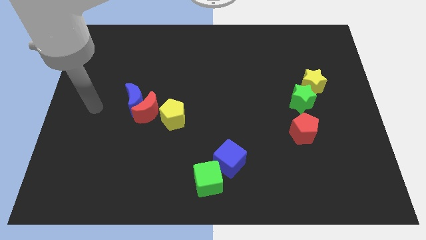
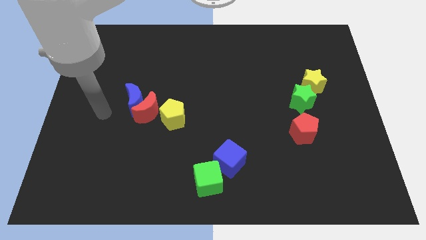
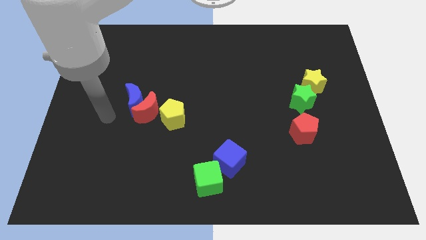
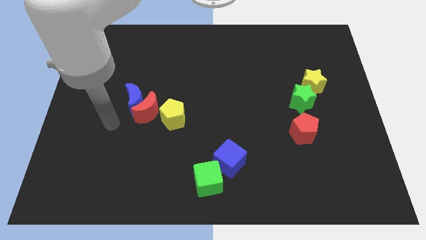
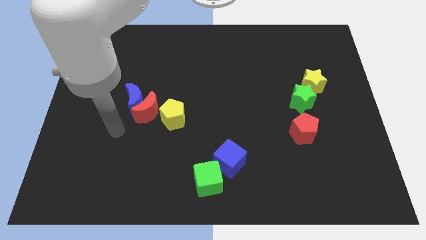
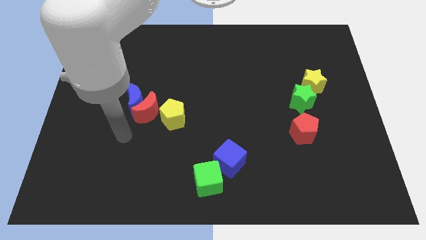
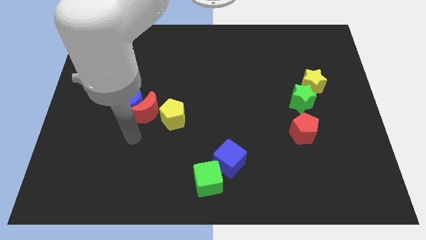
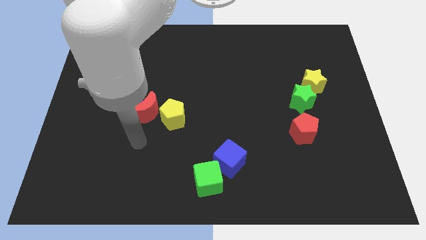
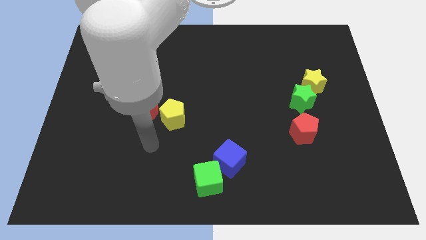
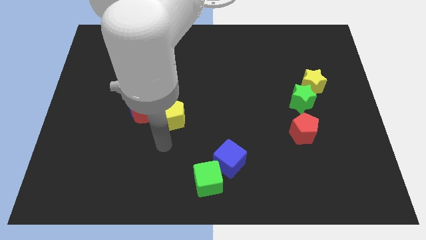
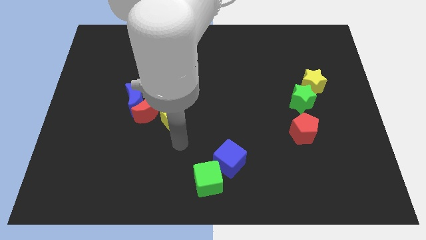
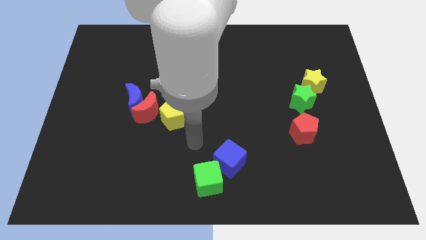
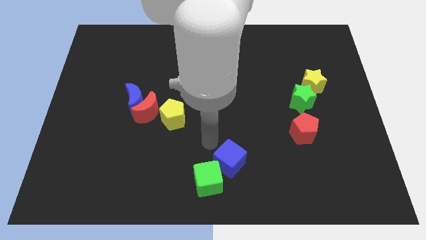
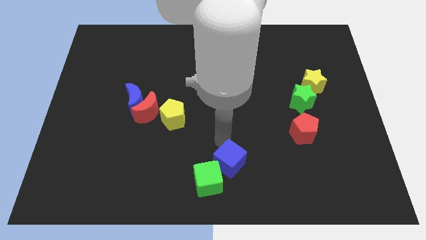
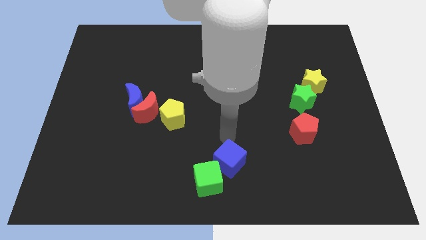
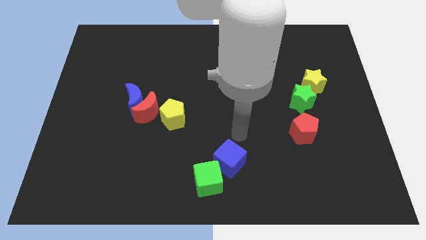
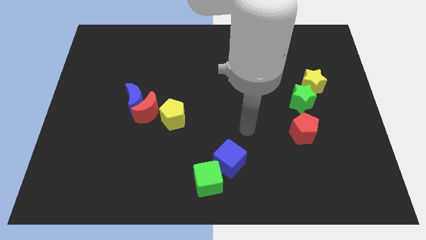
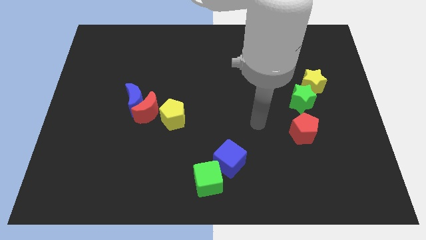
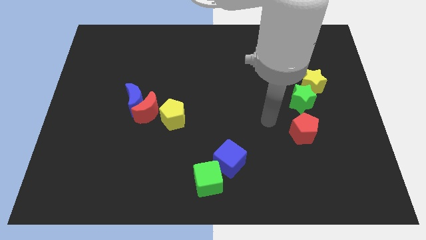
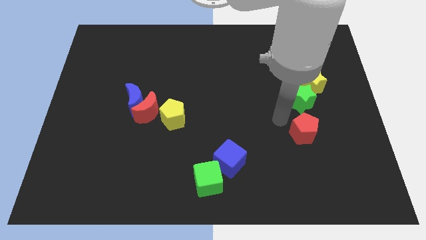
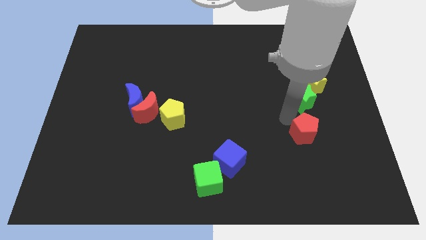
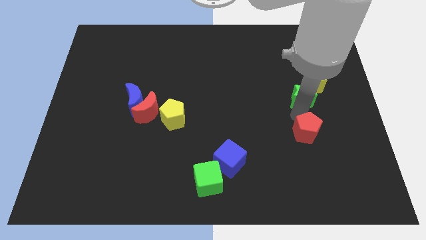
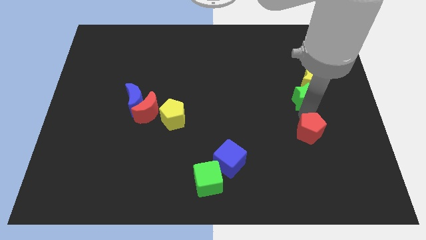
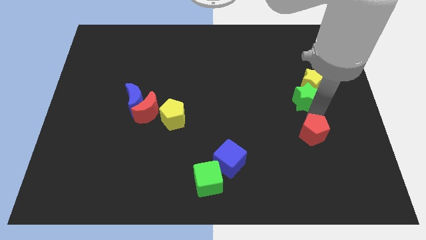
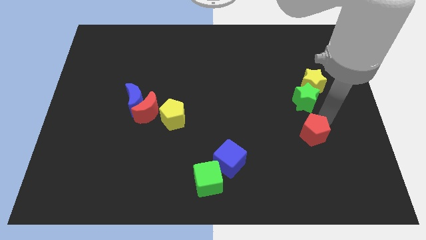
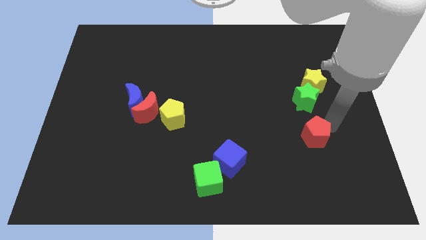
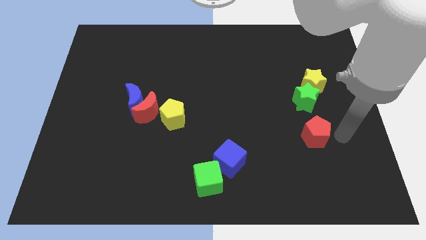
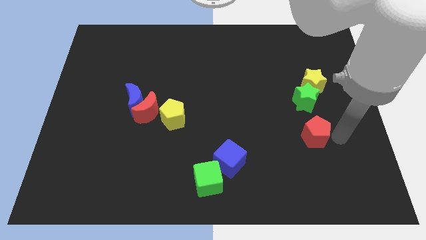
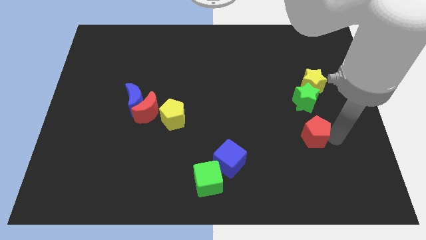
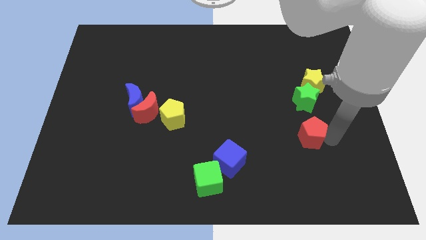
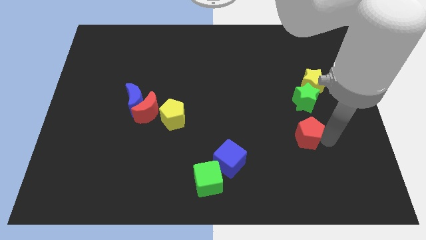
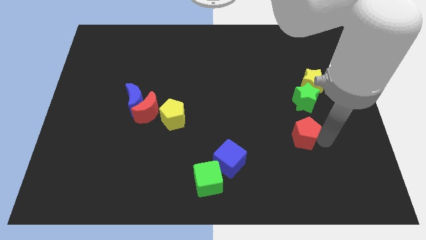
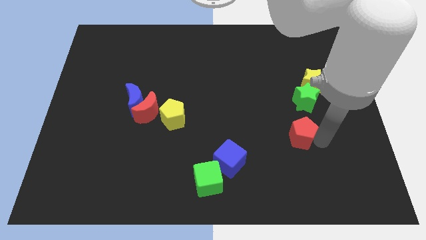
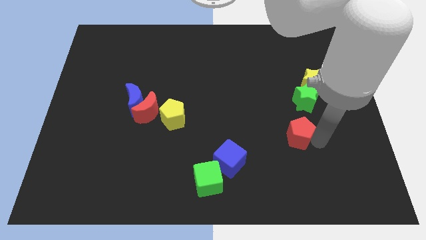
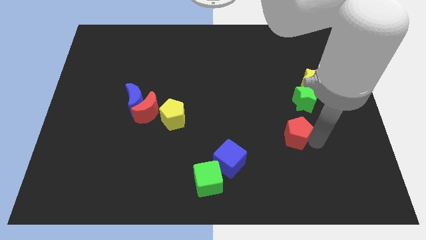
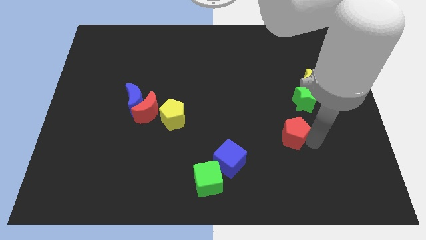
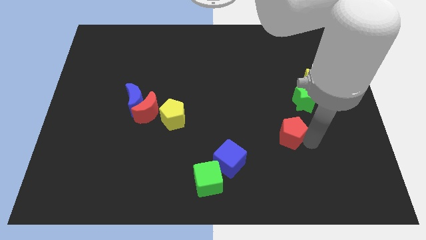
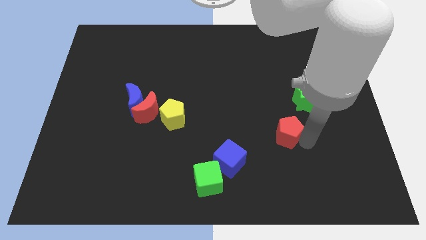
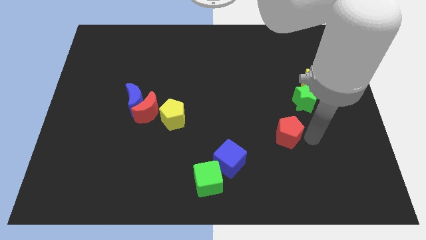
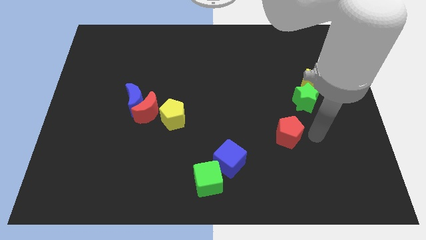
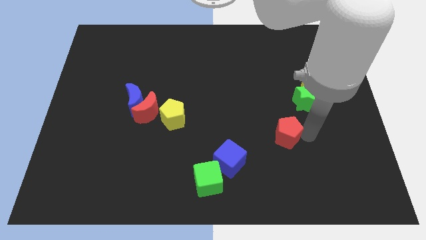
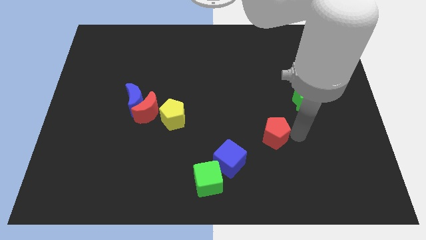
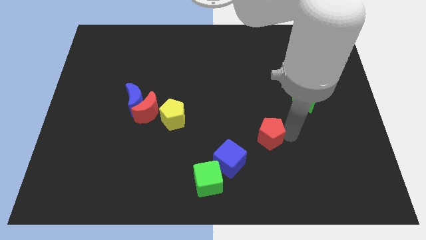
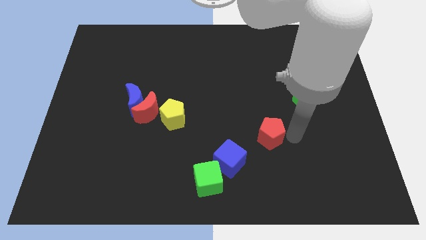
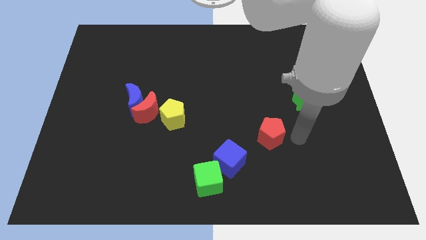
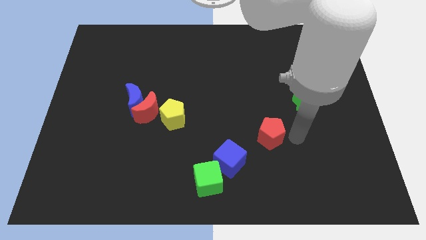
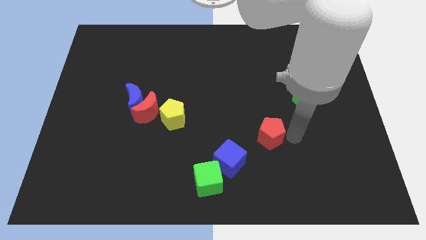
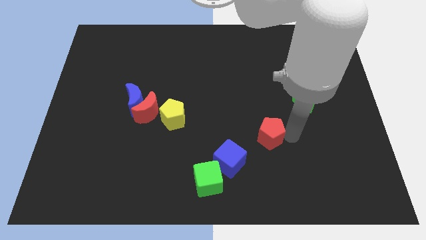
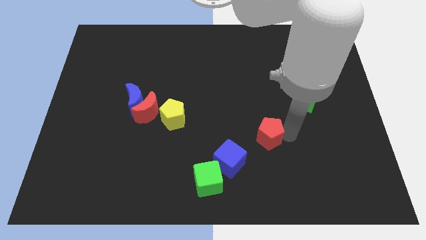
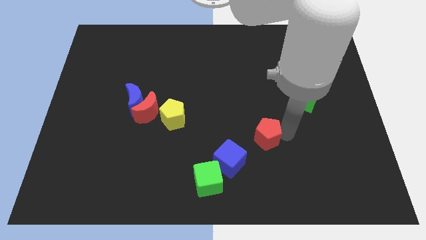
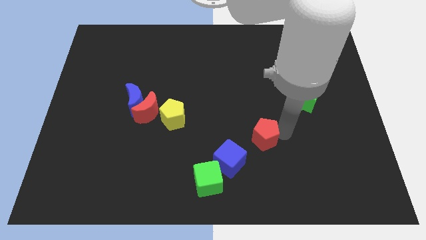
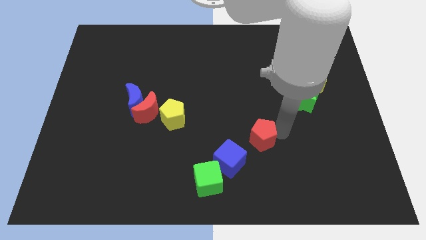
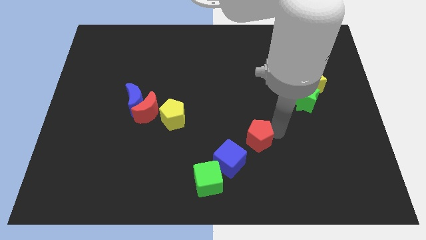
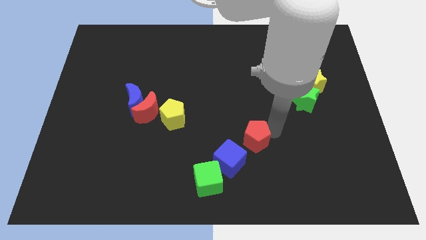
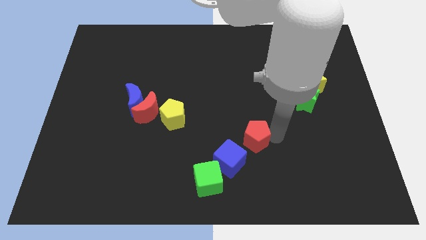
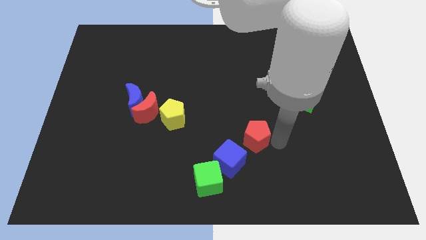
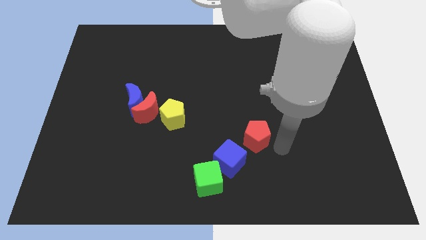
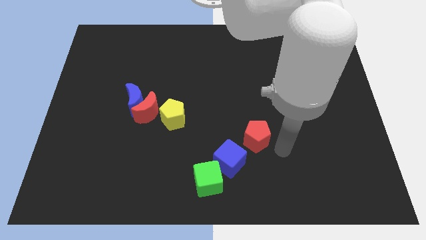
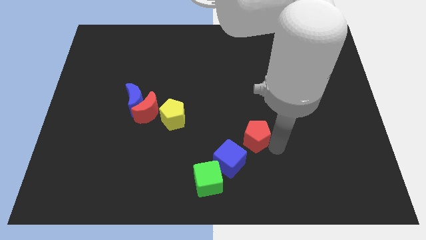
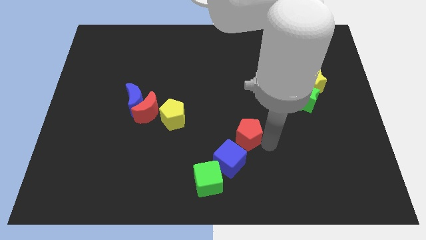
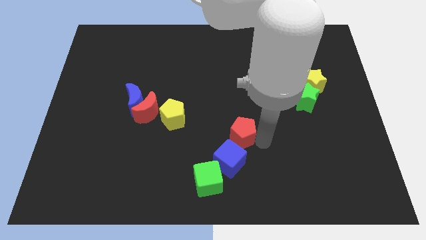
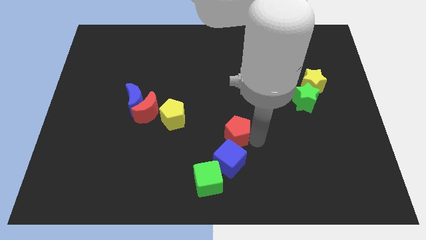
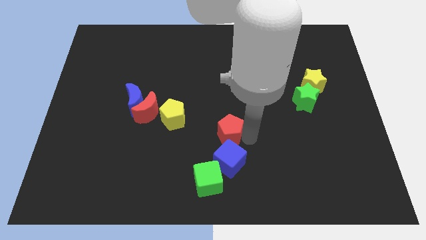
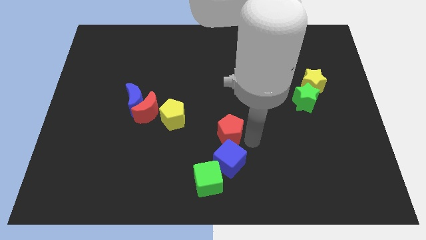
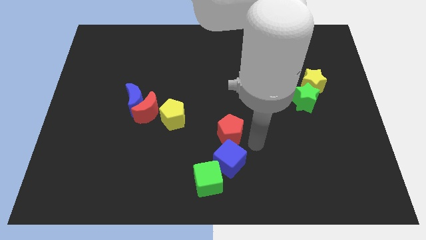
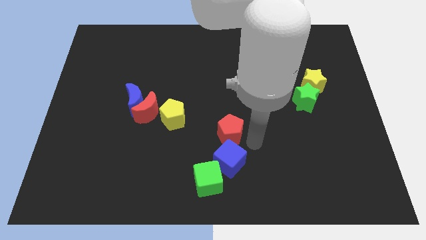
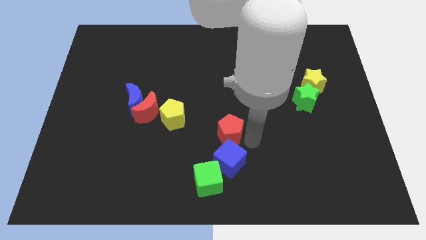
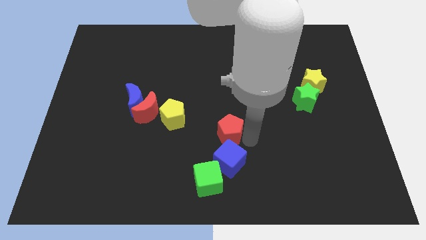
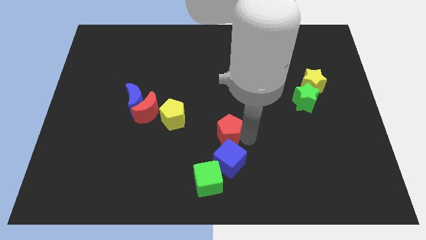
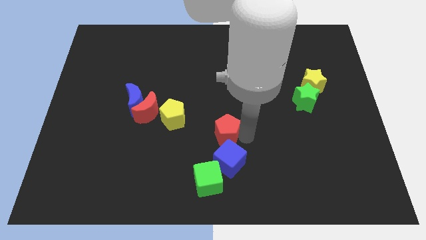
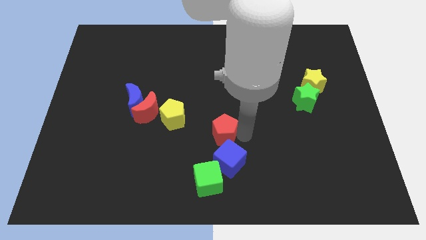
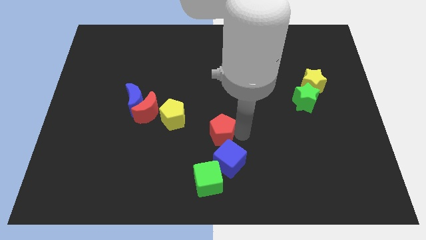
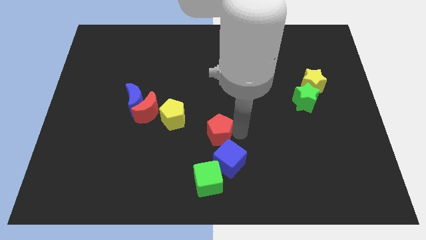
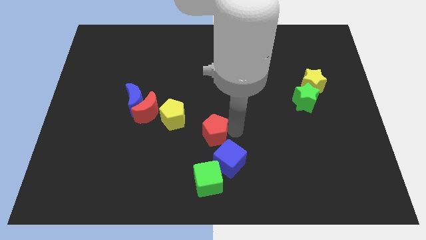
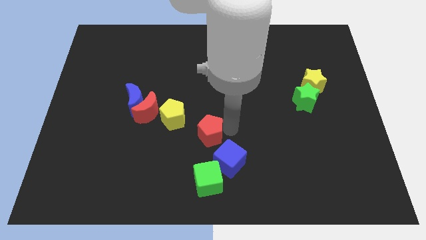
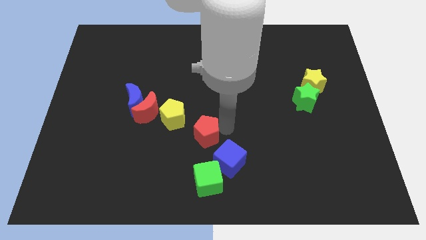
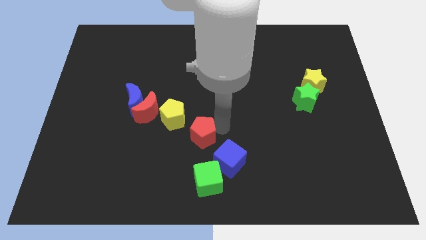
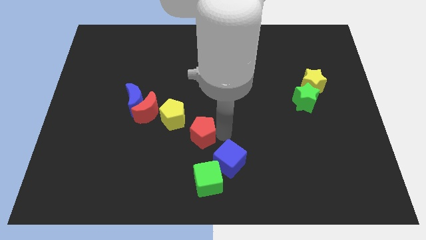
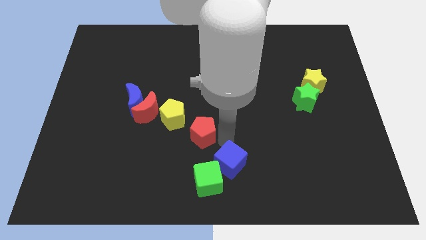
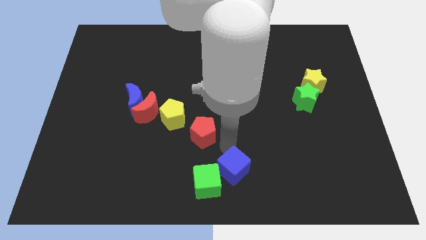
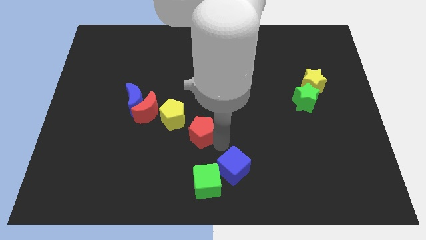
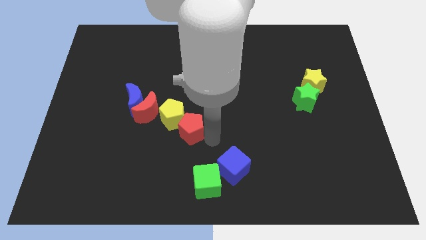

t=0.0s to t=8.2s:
slide the red pentagon close to the yellow pentagon
